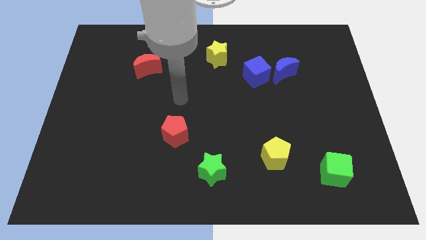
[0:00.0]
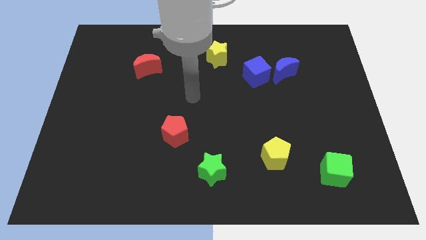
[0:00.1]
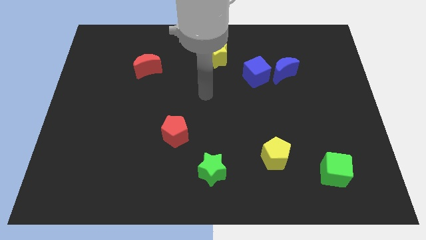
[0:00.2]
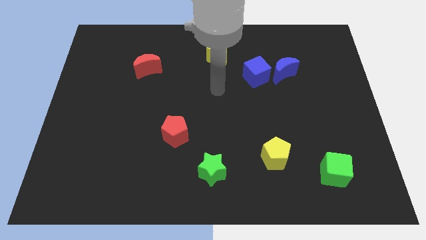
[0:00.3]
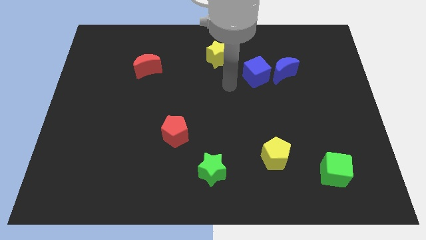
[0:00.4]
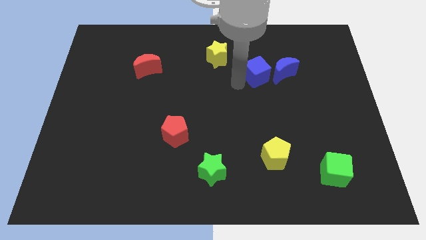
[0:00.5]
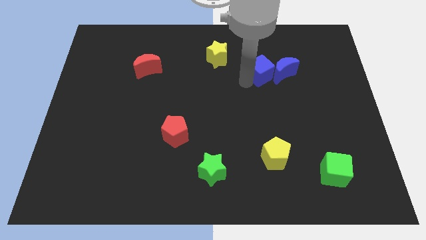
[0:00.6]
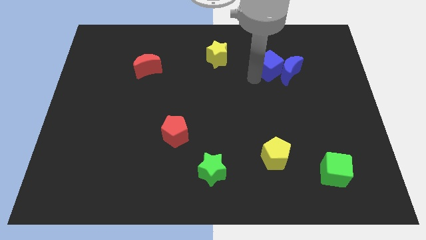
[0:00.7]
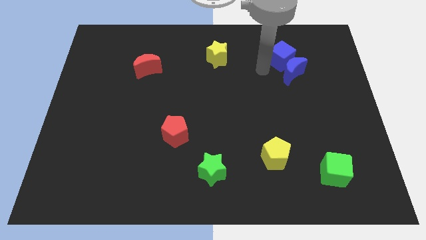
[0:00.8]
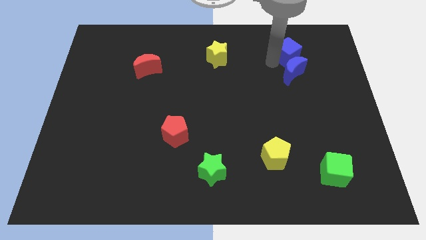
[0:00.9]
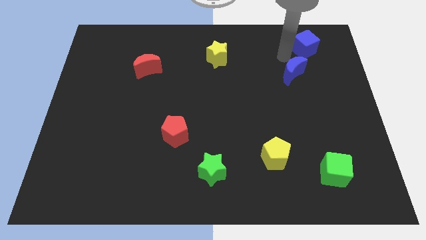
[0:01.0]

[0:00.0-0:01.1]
separate the blue moon from the blue cube

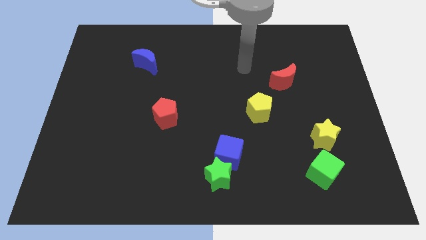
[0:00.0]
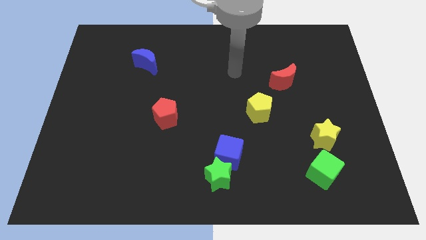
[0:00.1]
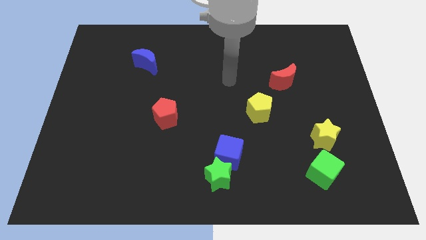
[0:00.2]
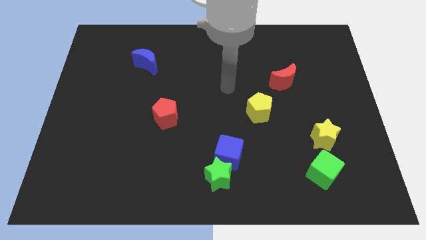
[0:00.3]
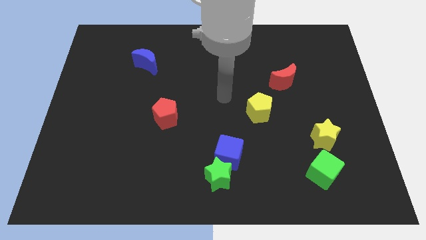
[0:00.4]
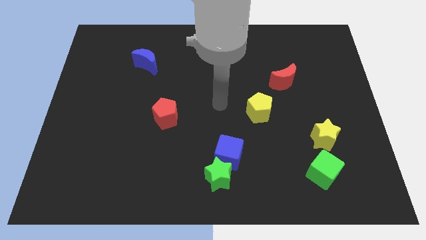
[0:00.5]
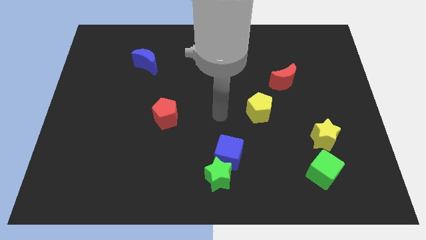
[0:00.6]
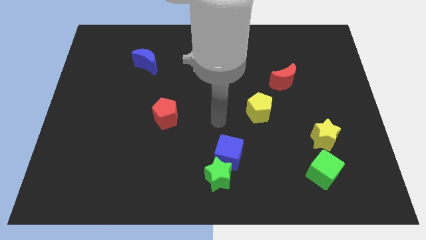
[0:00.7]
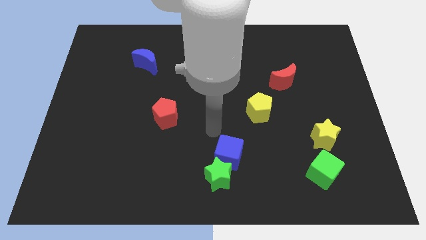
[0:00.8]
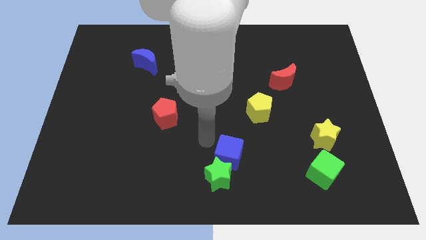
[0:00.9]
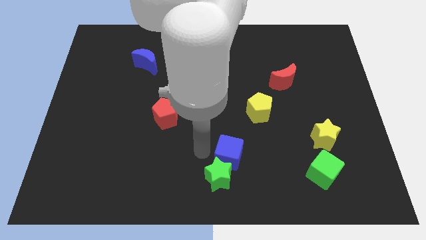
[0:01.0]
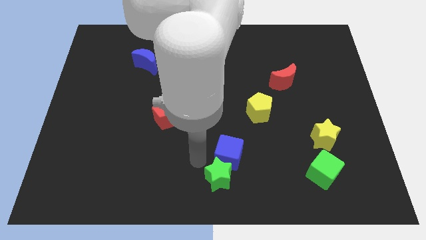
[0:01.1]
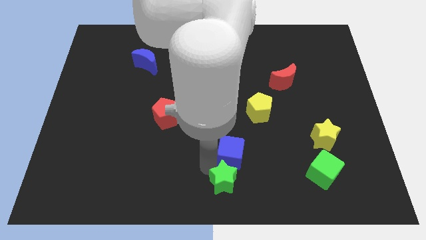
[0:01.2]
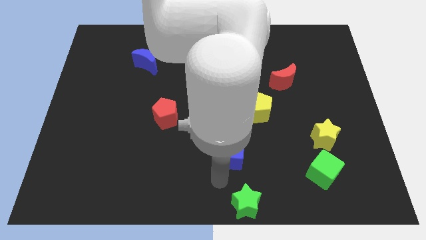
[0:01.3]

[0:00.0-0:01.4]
separate the blue cube from the green star

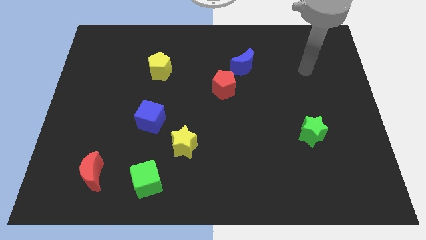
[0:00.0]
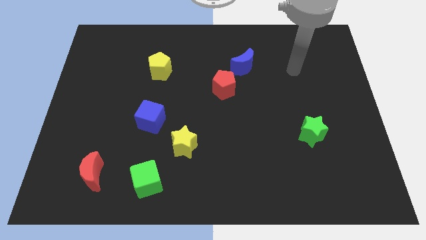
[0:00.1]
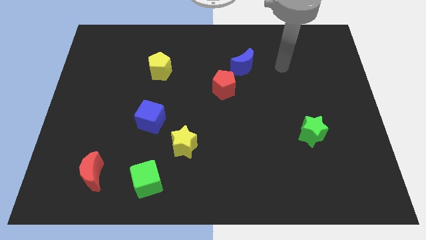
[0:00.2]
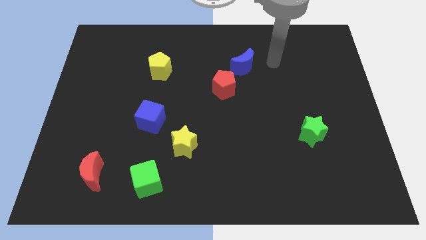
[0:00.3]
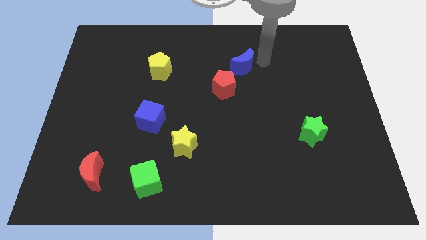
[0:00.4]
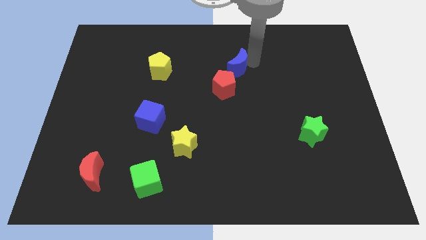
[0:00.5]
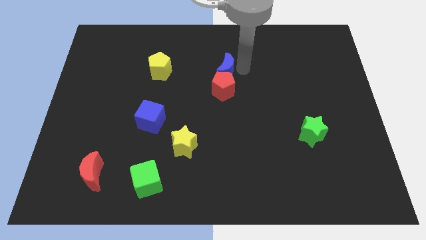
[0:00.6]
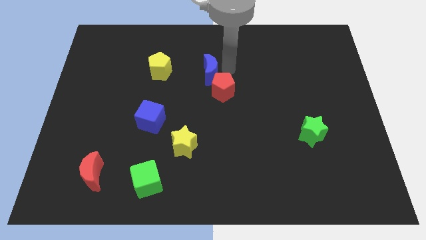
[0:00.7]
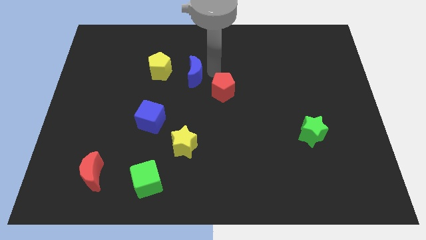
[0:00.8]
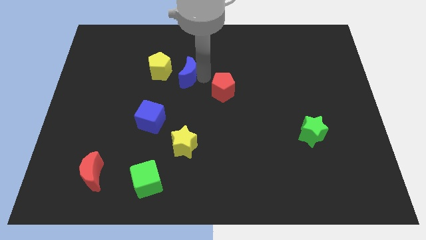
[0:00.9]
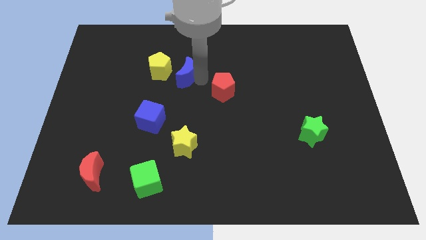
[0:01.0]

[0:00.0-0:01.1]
move the red pentagon away from the blue moon

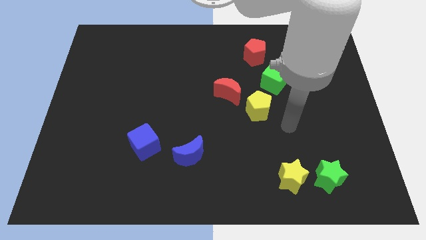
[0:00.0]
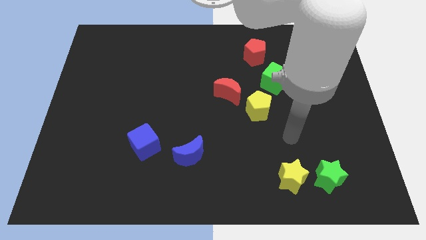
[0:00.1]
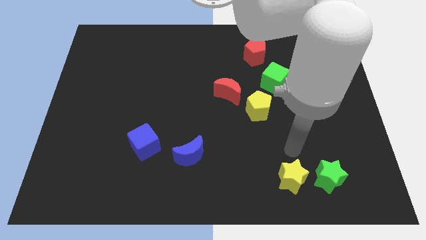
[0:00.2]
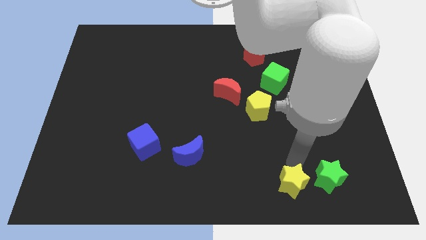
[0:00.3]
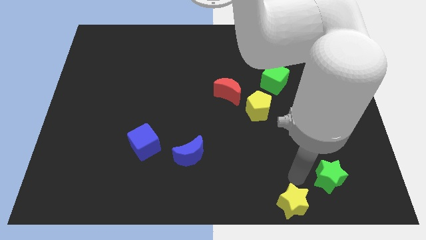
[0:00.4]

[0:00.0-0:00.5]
move the green star away from the yellow star

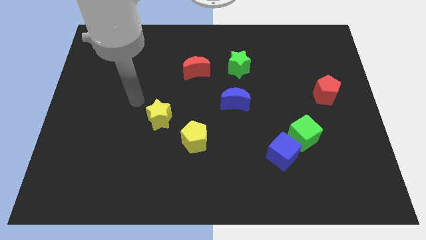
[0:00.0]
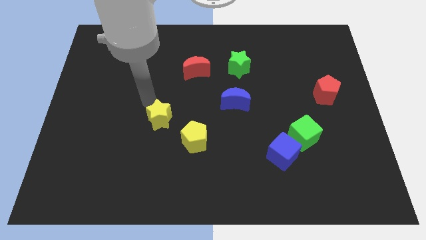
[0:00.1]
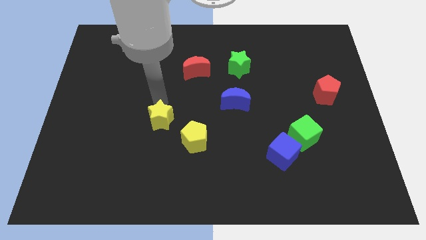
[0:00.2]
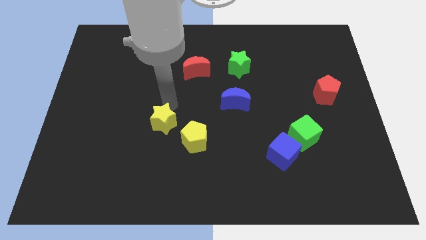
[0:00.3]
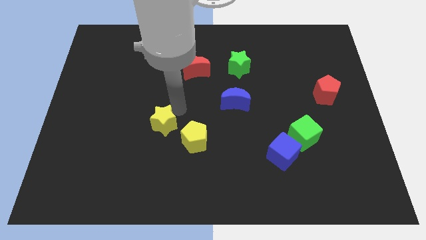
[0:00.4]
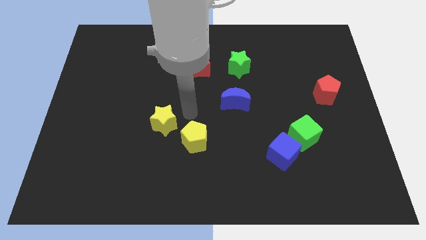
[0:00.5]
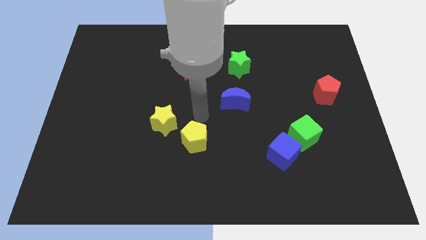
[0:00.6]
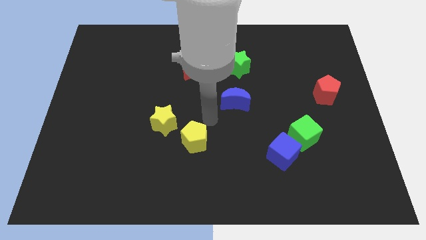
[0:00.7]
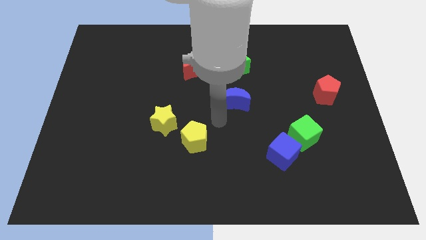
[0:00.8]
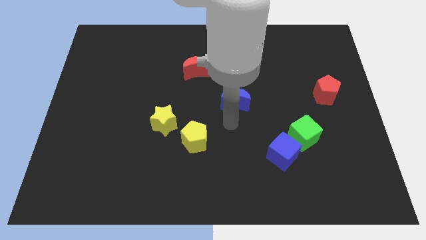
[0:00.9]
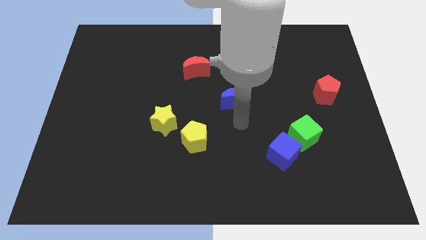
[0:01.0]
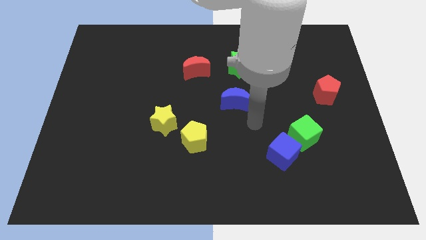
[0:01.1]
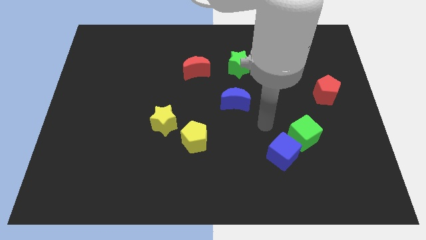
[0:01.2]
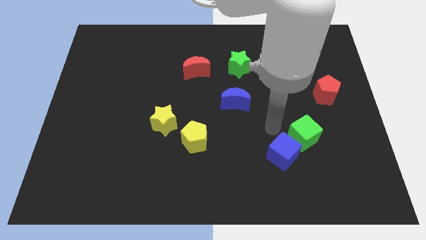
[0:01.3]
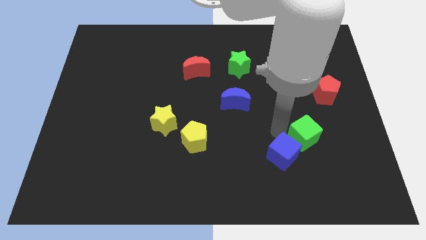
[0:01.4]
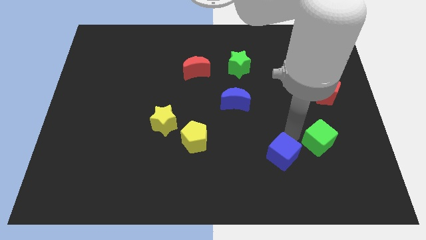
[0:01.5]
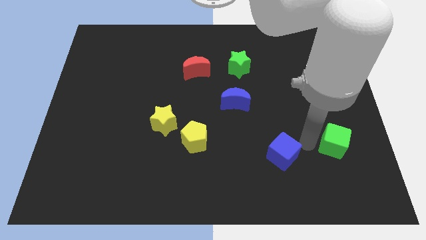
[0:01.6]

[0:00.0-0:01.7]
move the blue cube away from the green cube

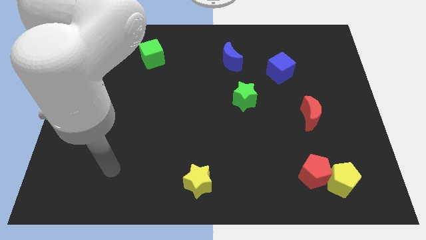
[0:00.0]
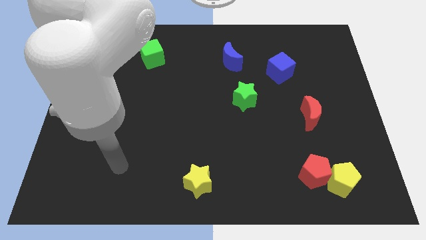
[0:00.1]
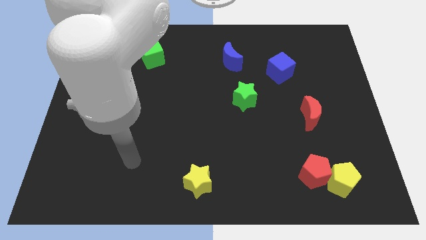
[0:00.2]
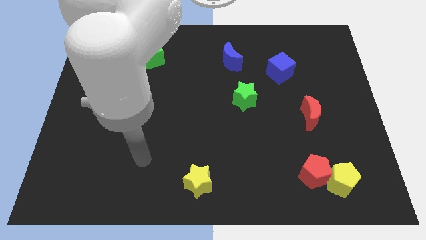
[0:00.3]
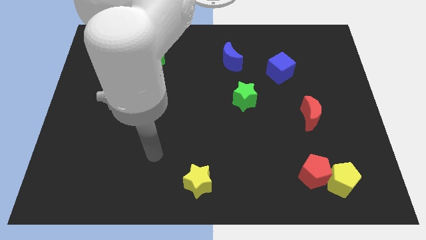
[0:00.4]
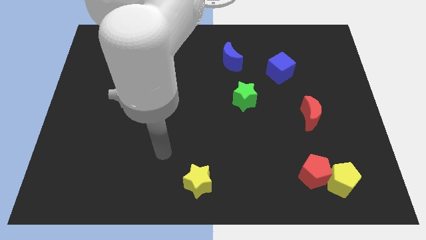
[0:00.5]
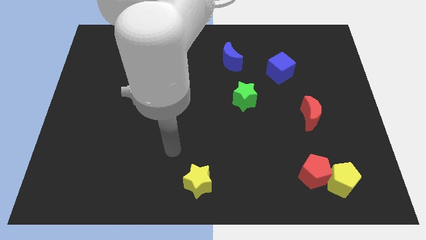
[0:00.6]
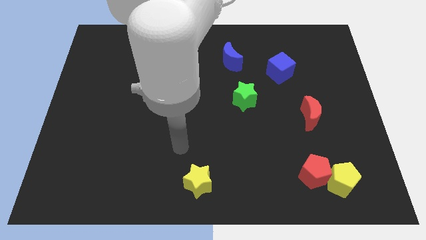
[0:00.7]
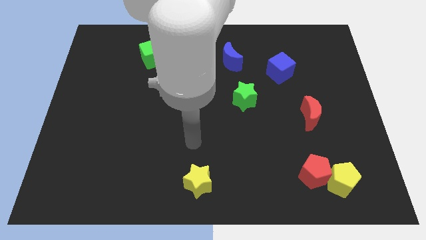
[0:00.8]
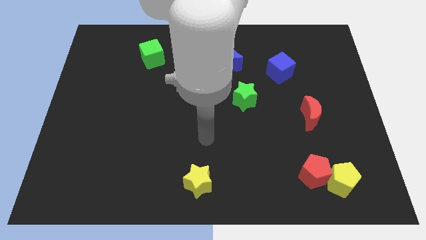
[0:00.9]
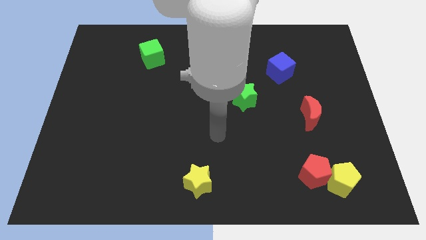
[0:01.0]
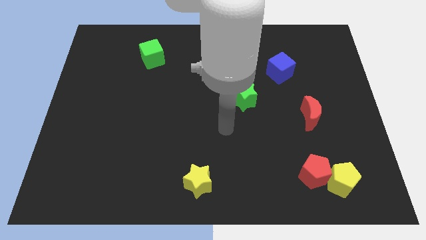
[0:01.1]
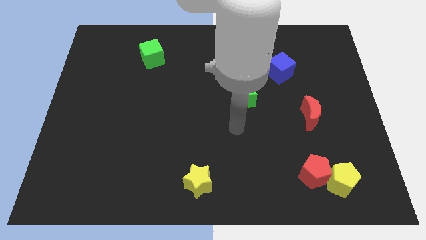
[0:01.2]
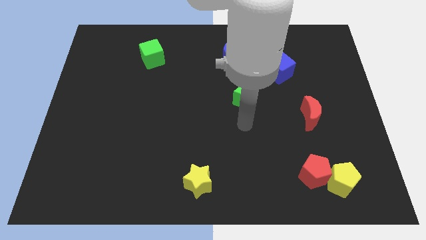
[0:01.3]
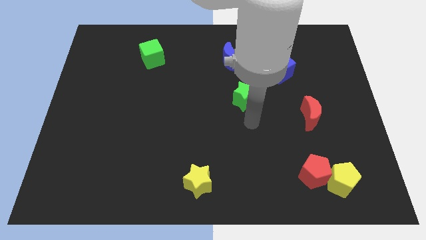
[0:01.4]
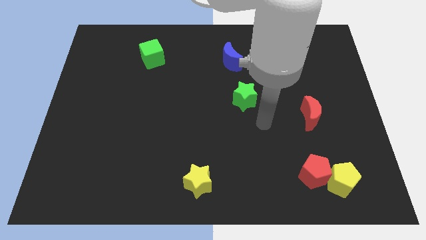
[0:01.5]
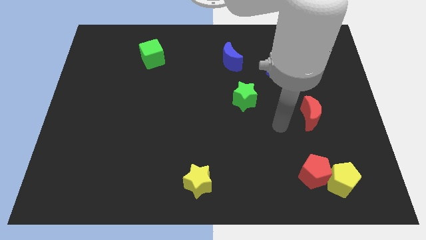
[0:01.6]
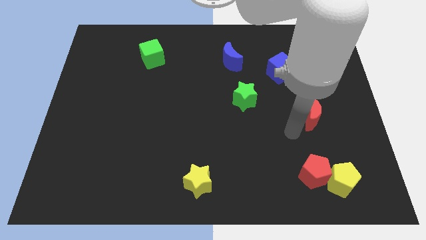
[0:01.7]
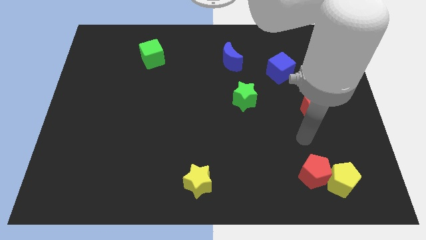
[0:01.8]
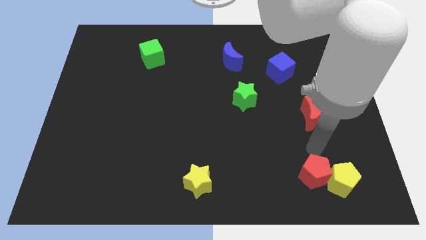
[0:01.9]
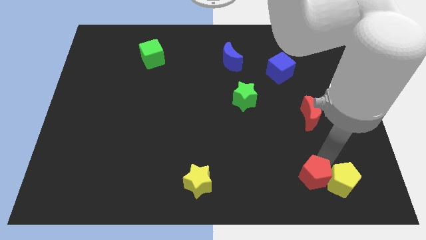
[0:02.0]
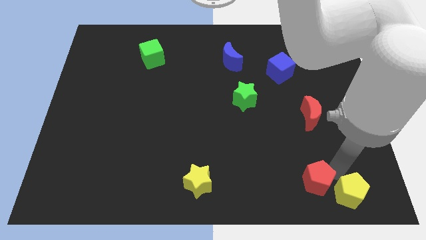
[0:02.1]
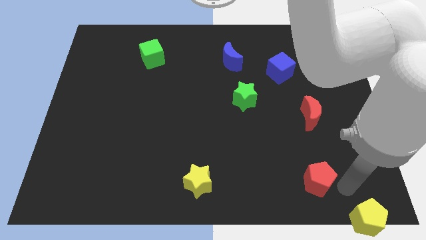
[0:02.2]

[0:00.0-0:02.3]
pull the red pentagon apart from the yellow pentagon

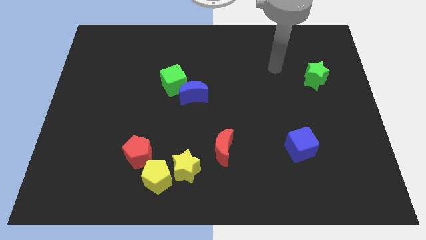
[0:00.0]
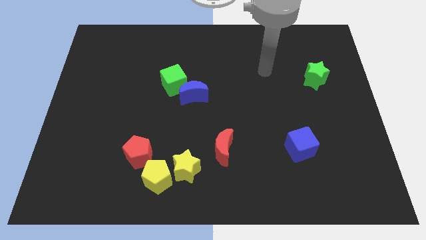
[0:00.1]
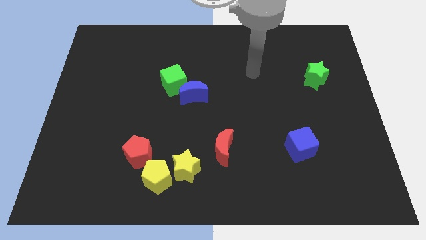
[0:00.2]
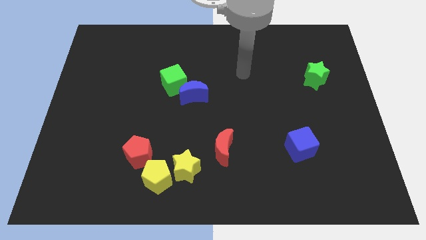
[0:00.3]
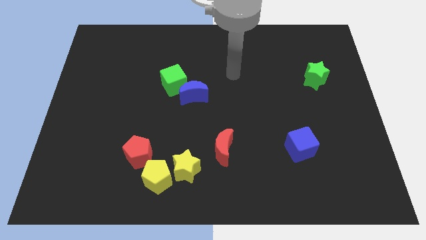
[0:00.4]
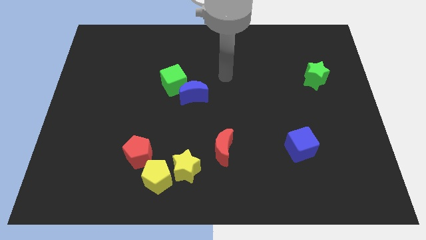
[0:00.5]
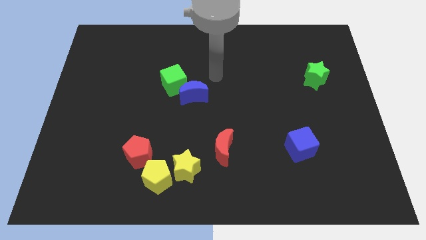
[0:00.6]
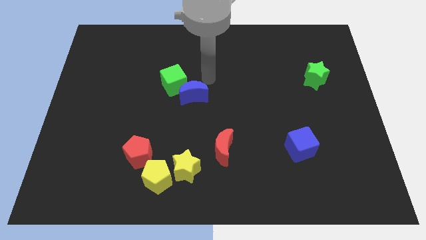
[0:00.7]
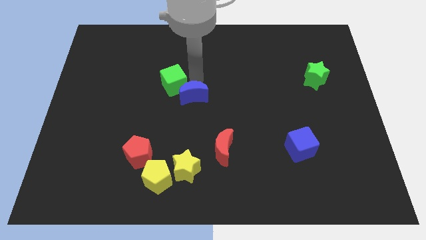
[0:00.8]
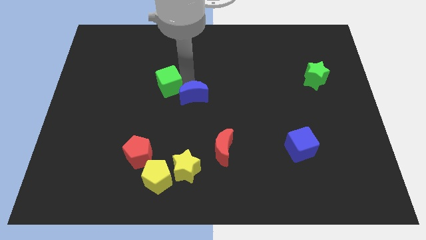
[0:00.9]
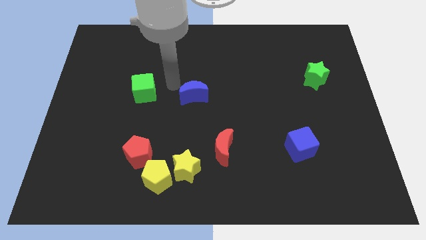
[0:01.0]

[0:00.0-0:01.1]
move the blue moon away from the green cube

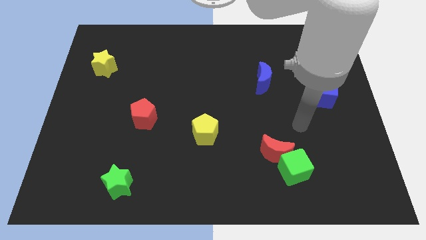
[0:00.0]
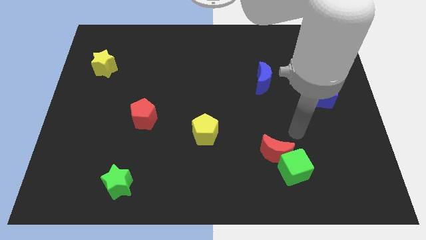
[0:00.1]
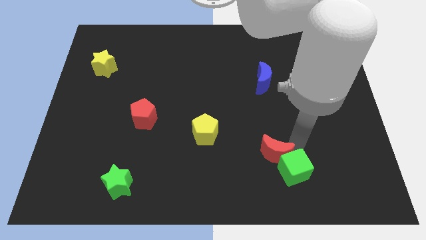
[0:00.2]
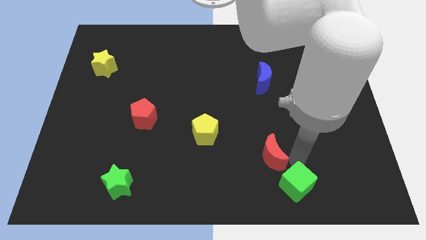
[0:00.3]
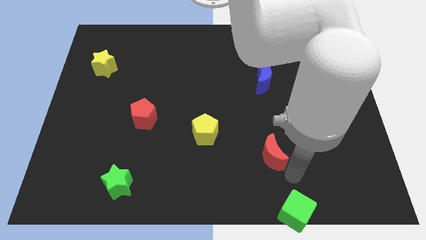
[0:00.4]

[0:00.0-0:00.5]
separate the red moon from the green cube
